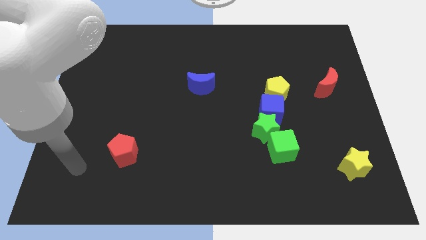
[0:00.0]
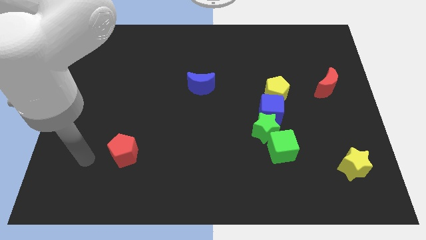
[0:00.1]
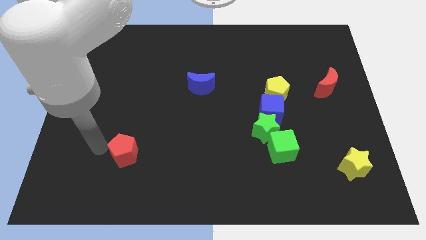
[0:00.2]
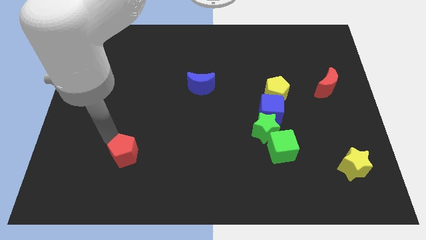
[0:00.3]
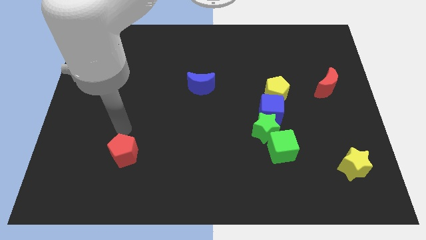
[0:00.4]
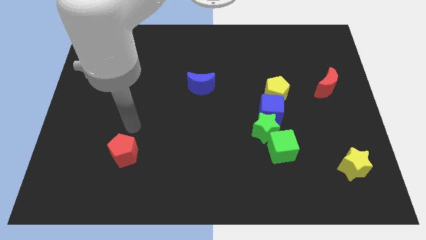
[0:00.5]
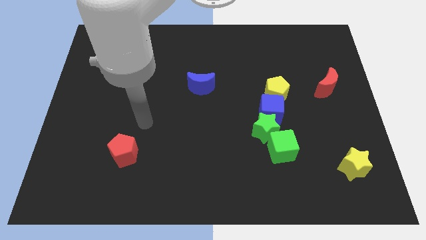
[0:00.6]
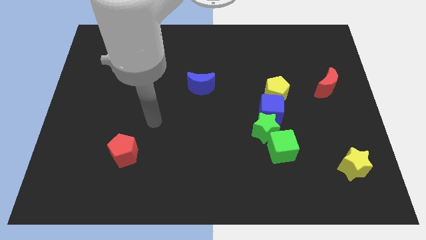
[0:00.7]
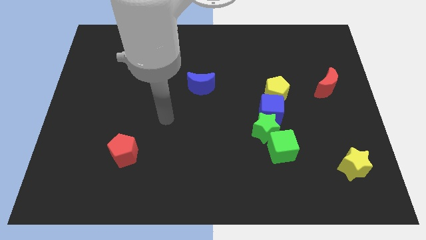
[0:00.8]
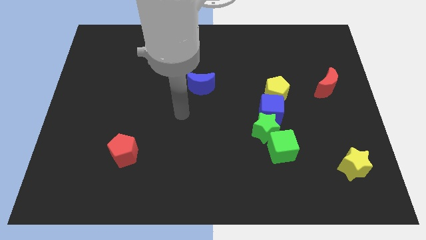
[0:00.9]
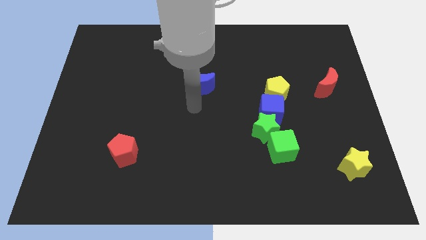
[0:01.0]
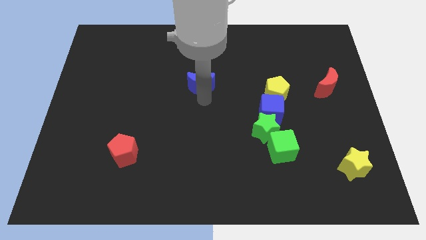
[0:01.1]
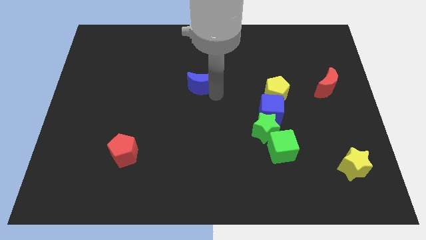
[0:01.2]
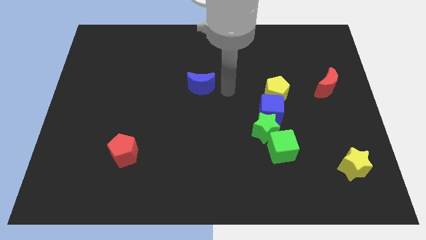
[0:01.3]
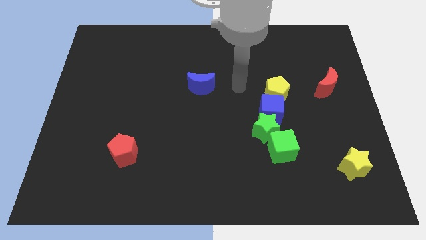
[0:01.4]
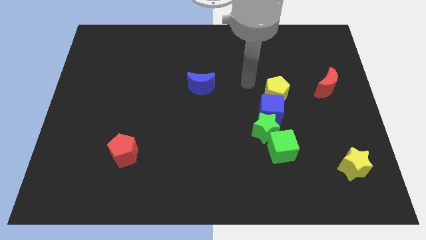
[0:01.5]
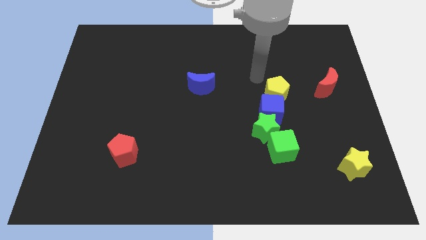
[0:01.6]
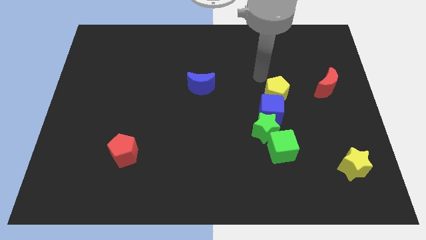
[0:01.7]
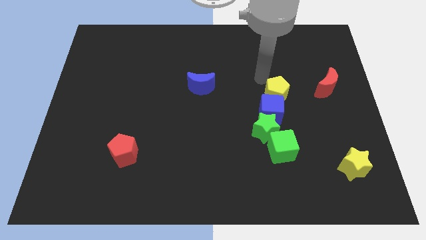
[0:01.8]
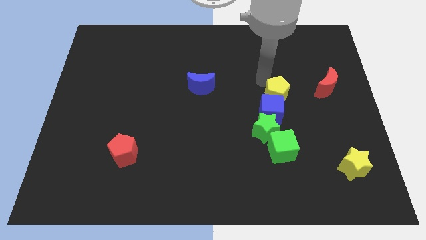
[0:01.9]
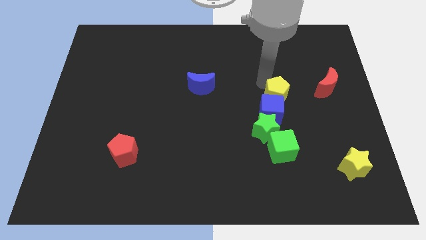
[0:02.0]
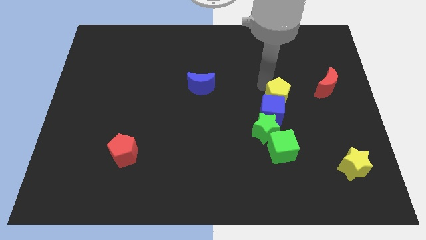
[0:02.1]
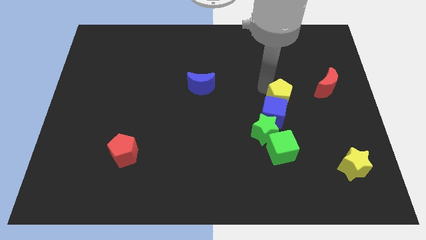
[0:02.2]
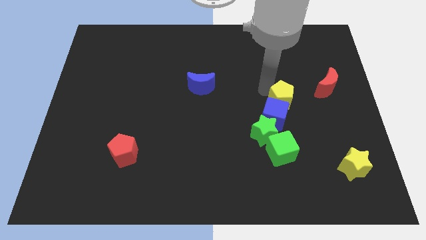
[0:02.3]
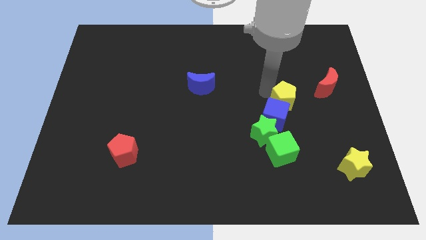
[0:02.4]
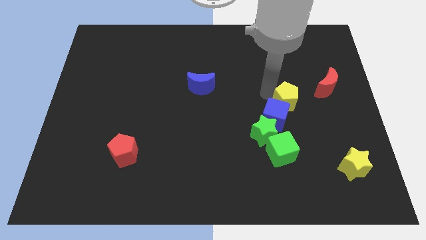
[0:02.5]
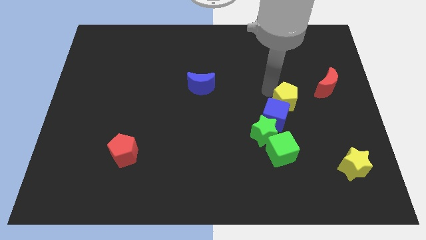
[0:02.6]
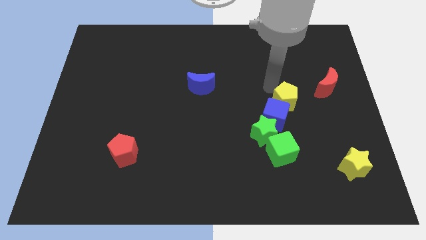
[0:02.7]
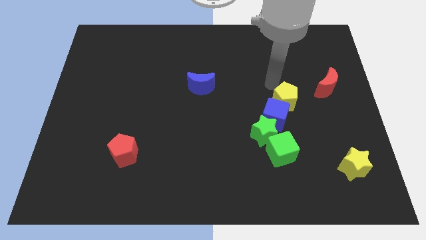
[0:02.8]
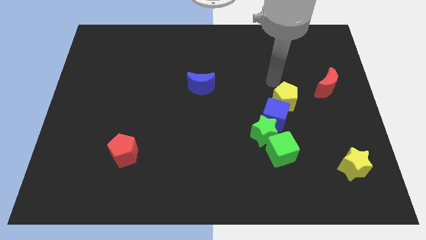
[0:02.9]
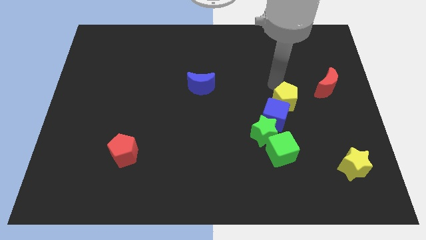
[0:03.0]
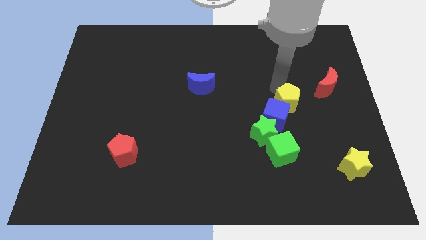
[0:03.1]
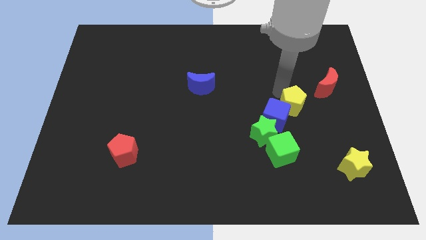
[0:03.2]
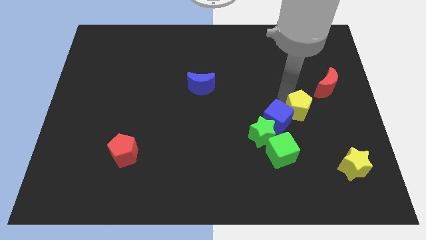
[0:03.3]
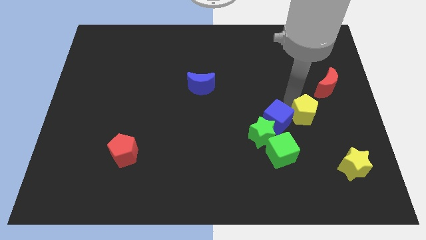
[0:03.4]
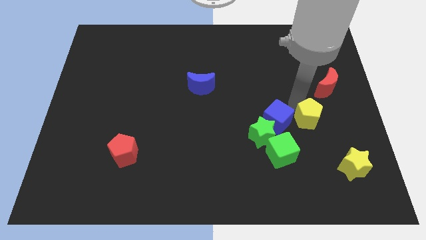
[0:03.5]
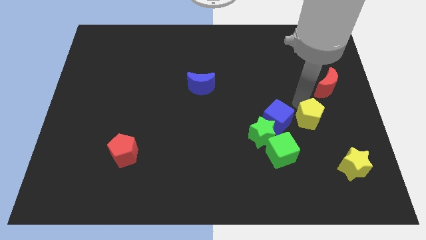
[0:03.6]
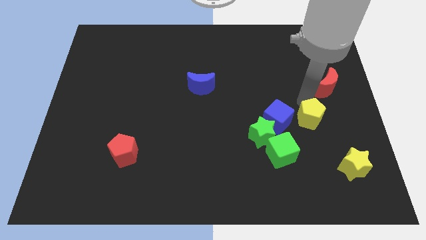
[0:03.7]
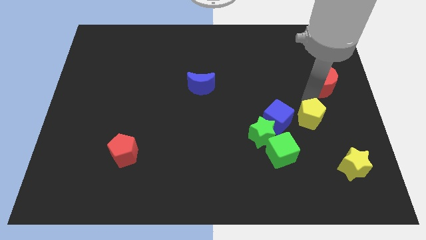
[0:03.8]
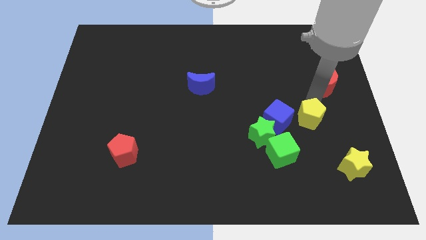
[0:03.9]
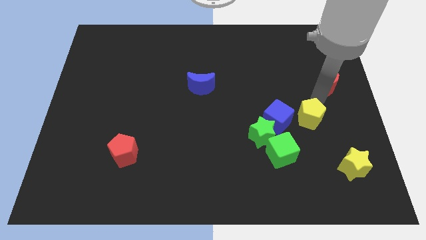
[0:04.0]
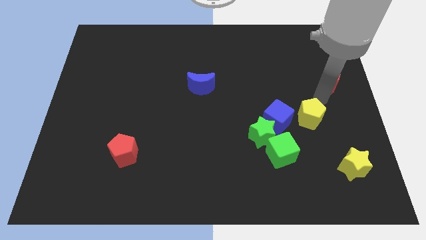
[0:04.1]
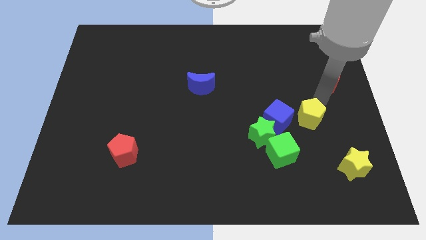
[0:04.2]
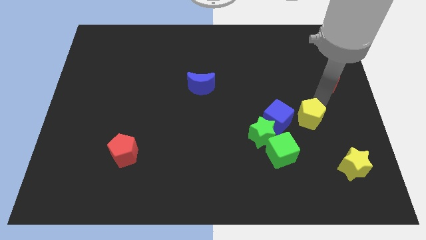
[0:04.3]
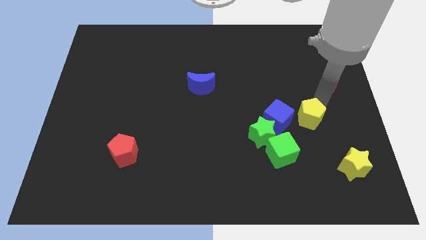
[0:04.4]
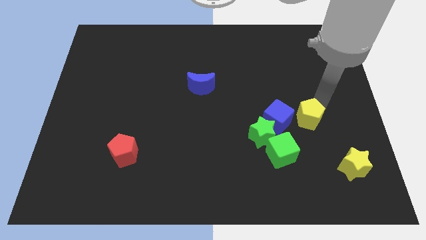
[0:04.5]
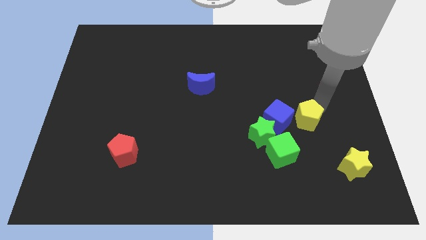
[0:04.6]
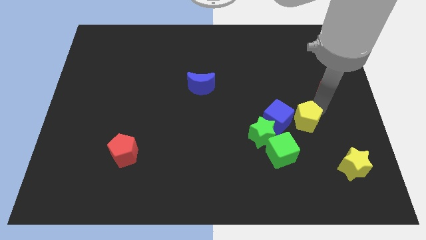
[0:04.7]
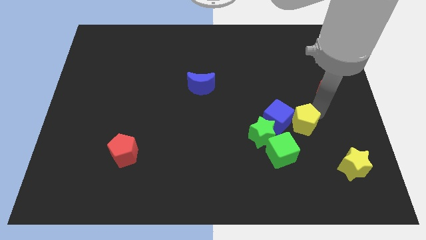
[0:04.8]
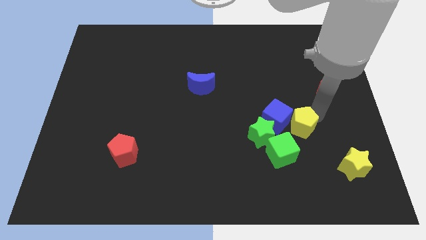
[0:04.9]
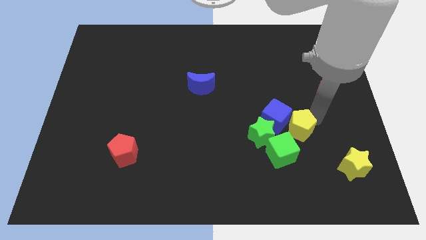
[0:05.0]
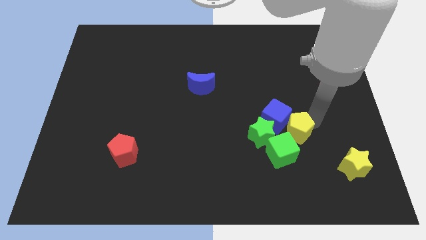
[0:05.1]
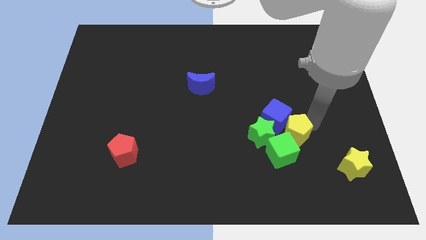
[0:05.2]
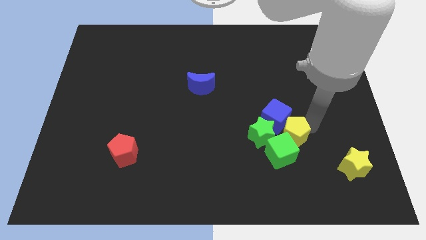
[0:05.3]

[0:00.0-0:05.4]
push the yellow pentagon close to the green cube

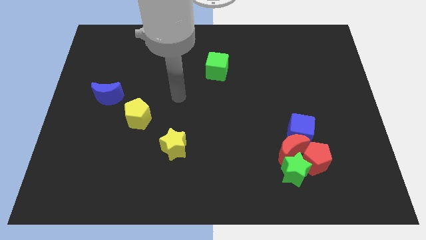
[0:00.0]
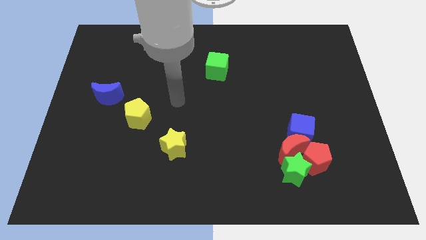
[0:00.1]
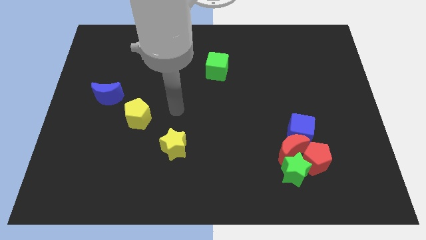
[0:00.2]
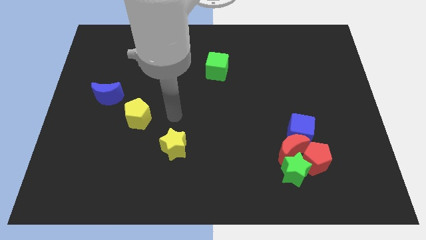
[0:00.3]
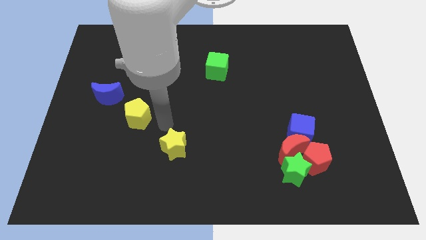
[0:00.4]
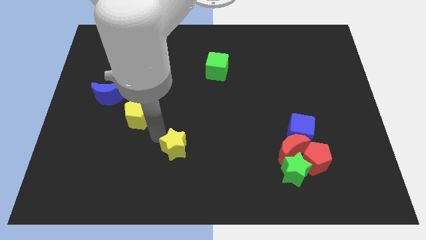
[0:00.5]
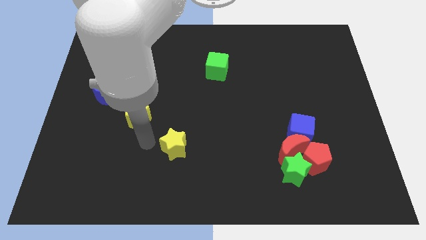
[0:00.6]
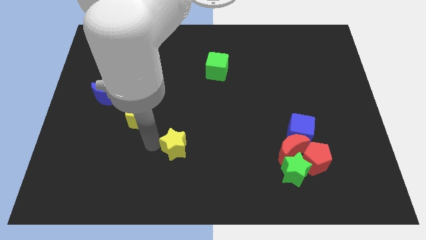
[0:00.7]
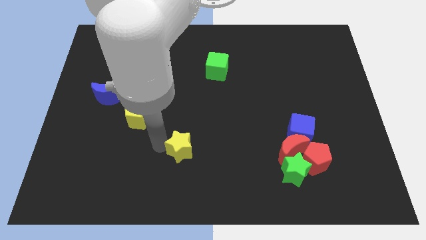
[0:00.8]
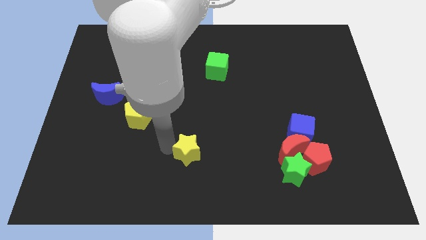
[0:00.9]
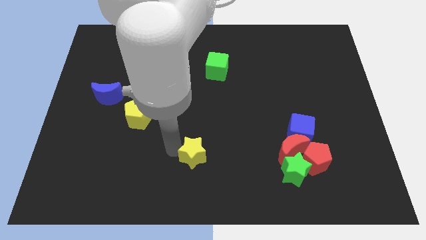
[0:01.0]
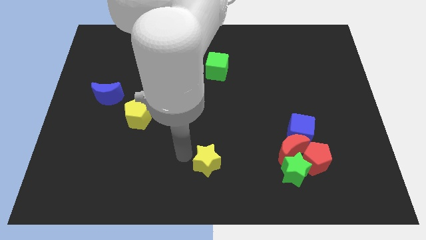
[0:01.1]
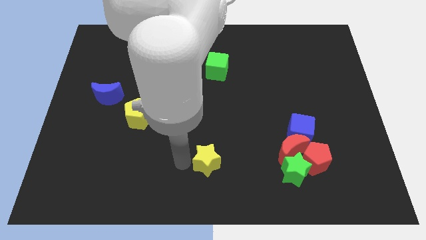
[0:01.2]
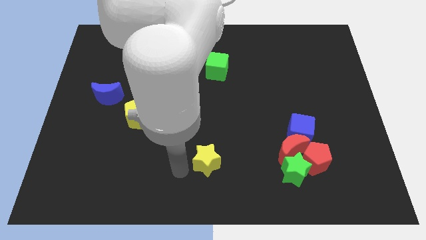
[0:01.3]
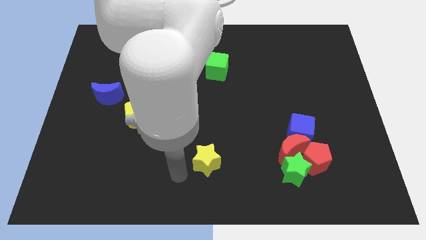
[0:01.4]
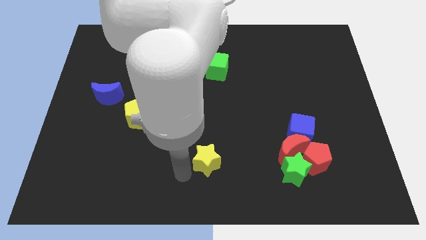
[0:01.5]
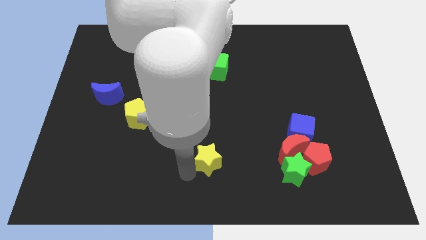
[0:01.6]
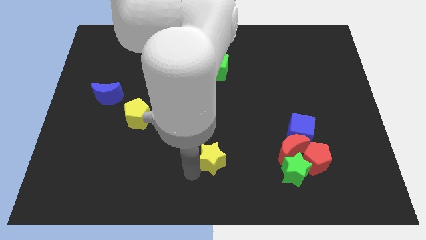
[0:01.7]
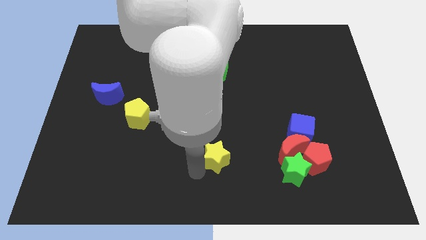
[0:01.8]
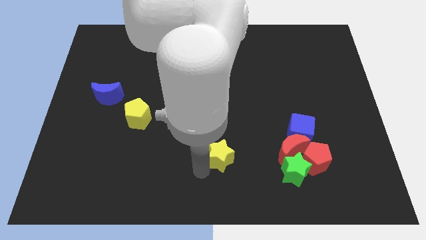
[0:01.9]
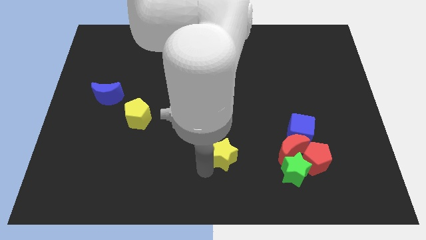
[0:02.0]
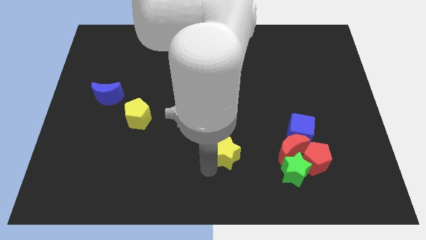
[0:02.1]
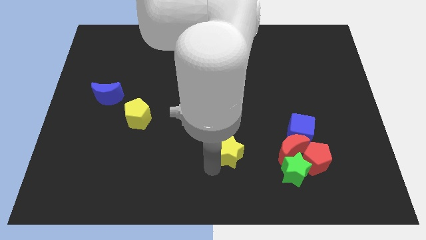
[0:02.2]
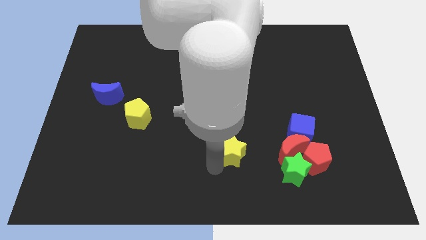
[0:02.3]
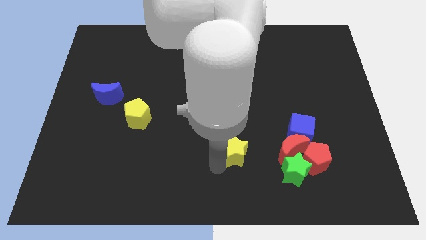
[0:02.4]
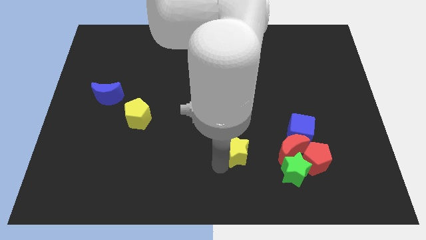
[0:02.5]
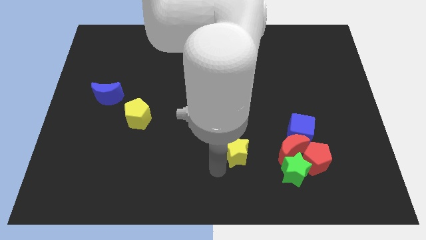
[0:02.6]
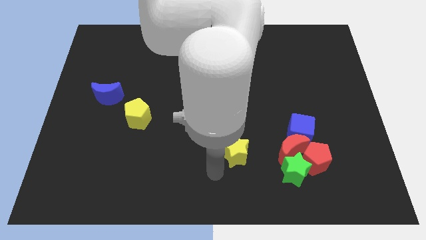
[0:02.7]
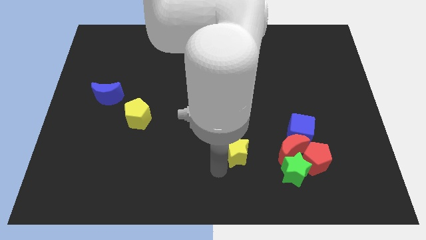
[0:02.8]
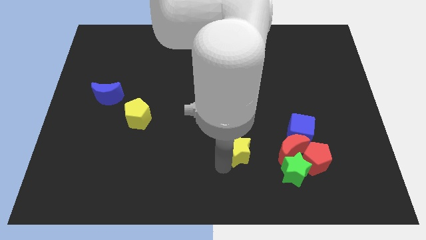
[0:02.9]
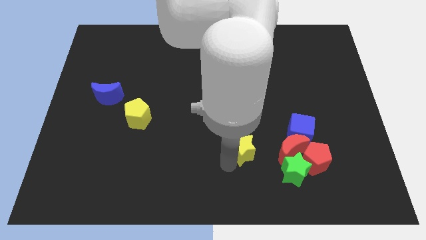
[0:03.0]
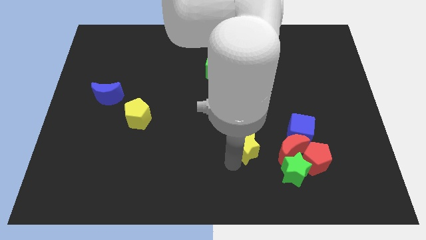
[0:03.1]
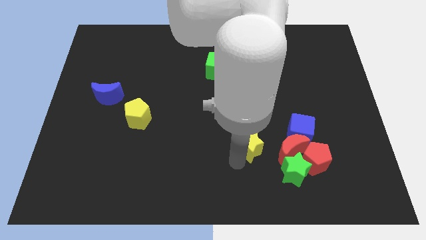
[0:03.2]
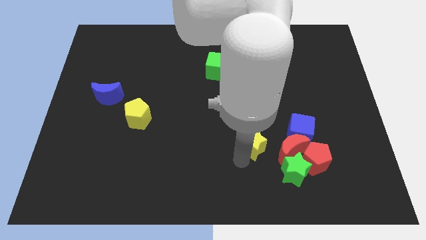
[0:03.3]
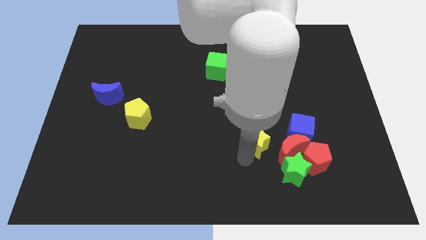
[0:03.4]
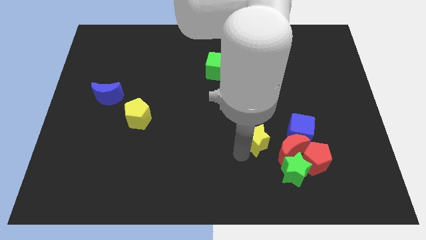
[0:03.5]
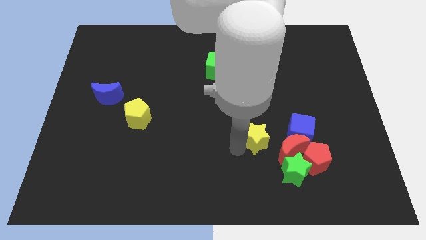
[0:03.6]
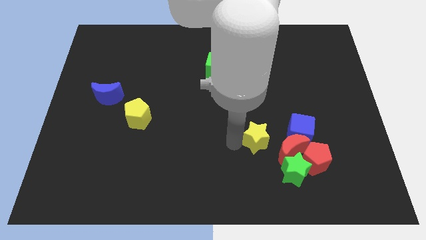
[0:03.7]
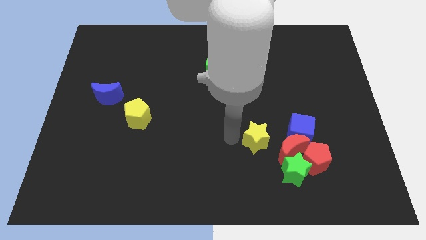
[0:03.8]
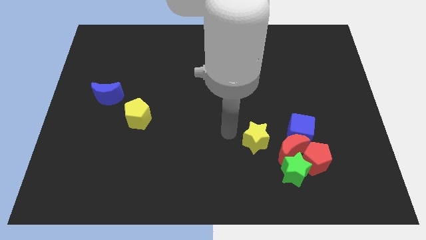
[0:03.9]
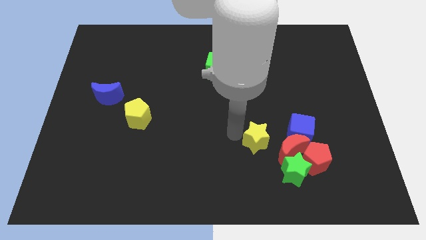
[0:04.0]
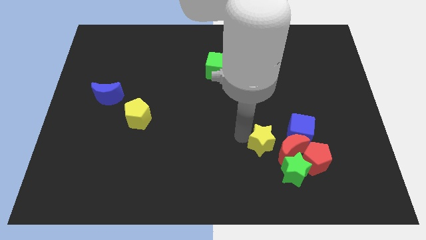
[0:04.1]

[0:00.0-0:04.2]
move the yellow star next to the red moon
